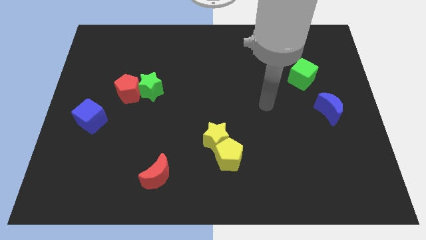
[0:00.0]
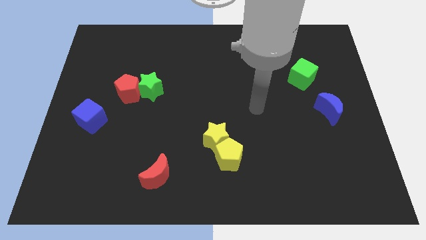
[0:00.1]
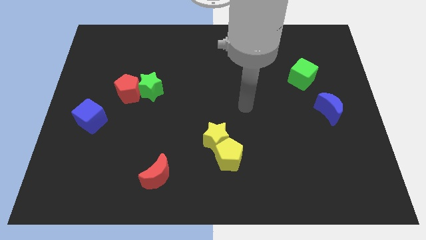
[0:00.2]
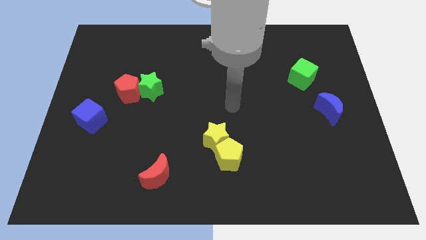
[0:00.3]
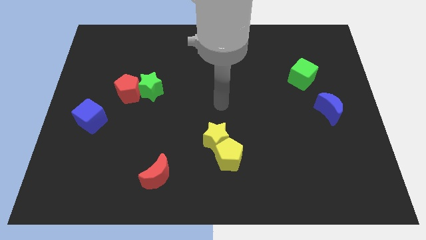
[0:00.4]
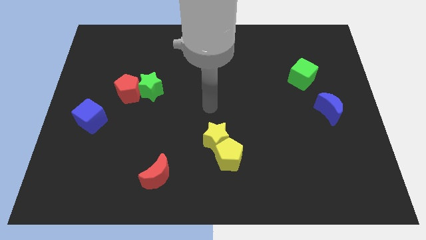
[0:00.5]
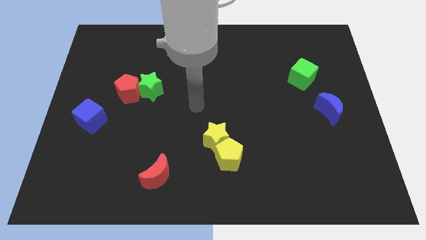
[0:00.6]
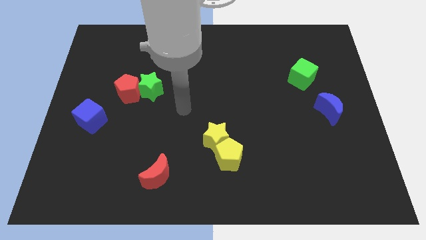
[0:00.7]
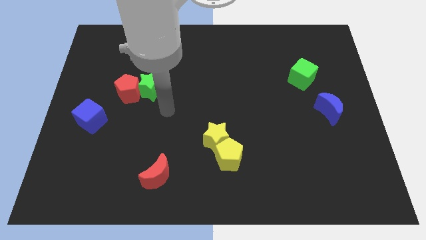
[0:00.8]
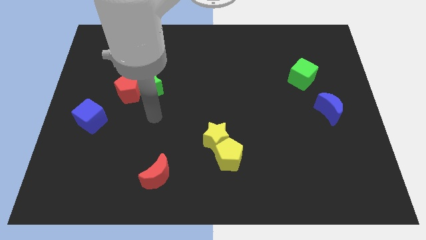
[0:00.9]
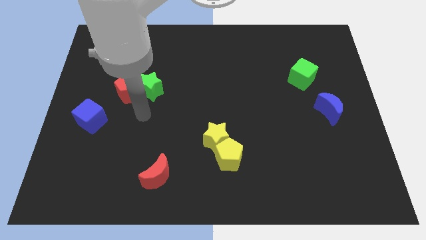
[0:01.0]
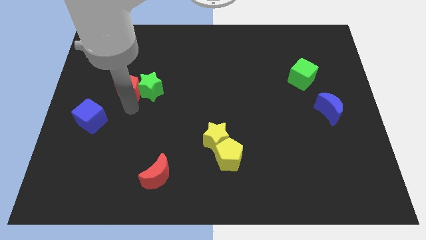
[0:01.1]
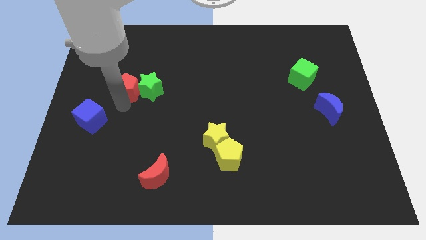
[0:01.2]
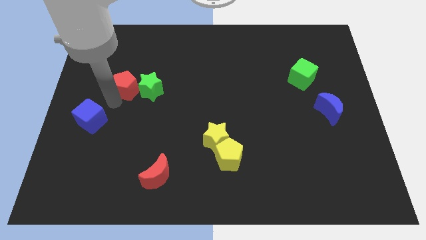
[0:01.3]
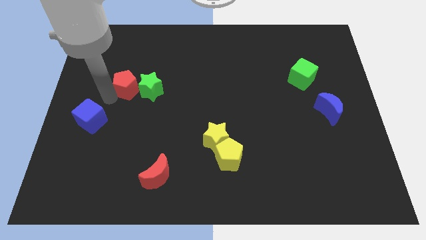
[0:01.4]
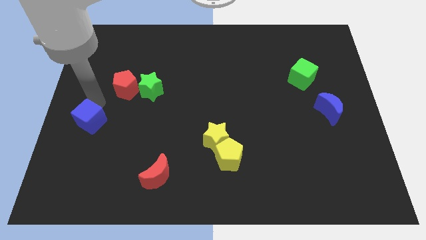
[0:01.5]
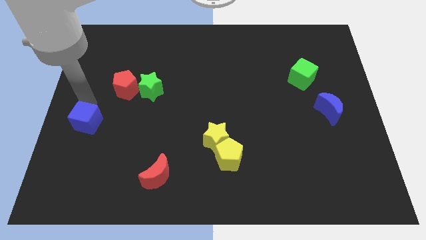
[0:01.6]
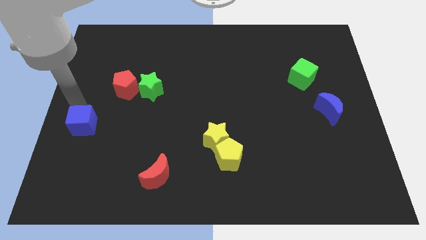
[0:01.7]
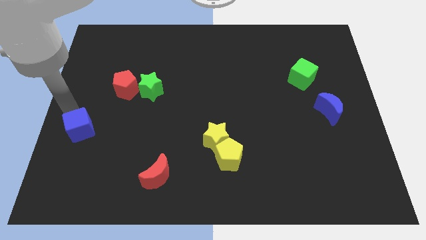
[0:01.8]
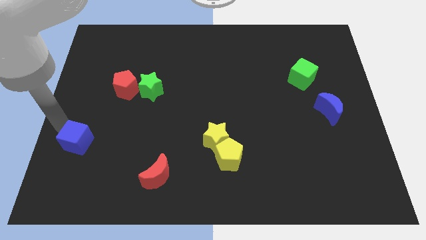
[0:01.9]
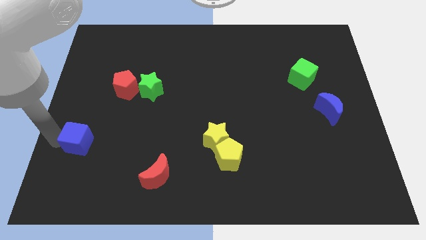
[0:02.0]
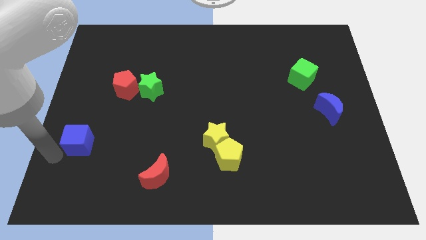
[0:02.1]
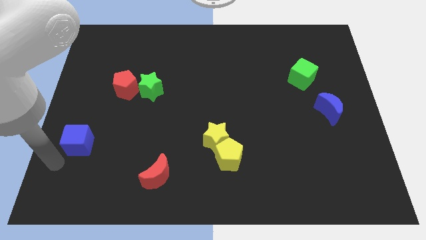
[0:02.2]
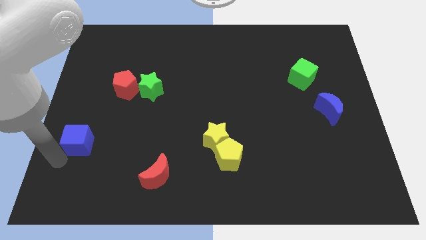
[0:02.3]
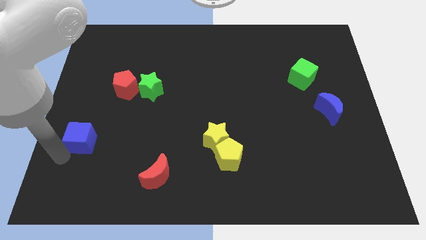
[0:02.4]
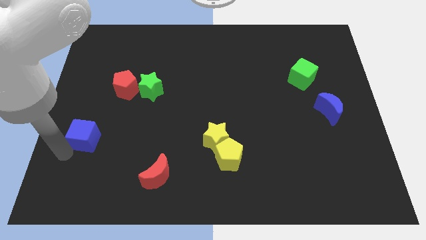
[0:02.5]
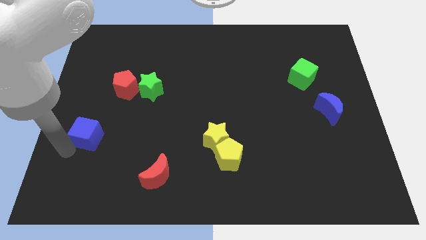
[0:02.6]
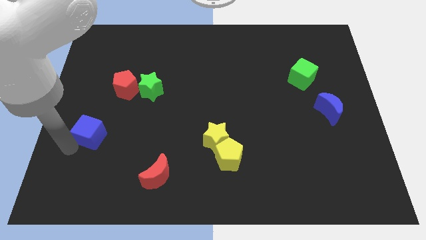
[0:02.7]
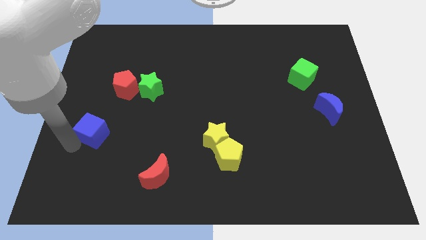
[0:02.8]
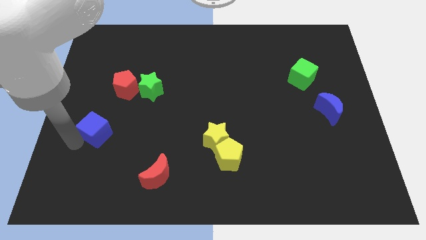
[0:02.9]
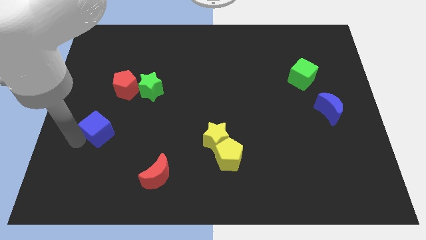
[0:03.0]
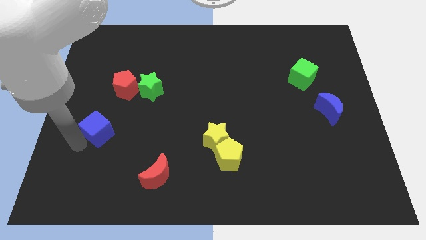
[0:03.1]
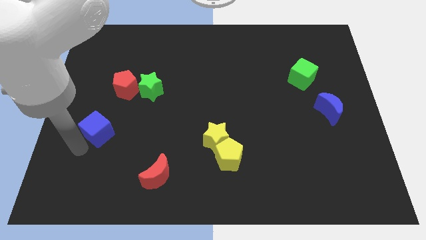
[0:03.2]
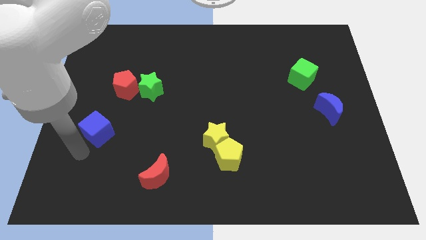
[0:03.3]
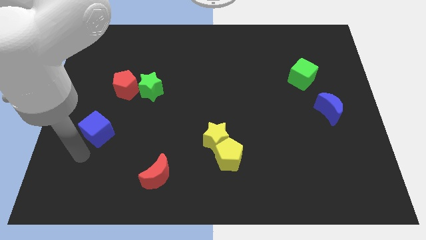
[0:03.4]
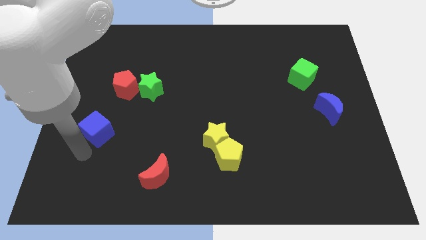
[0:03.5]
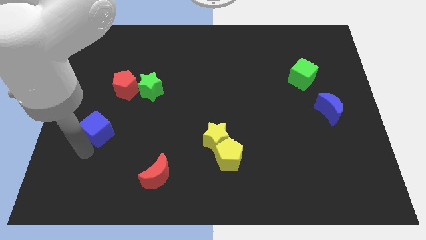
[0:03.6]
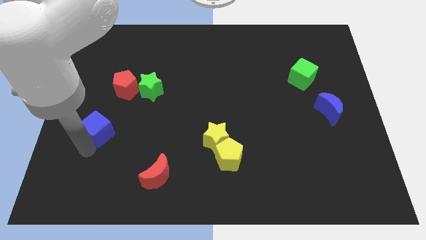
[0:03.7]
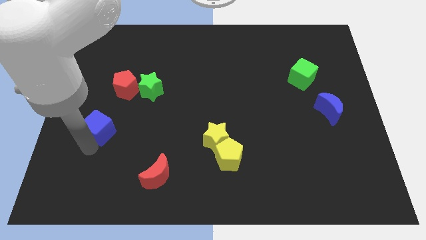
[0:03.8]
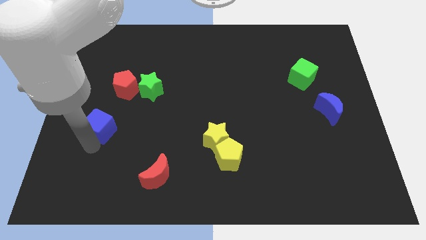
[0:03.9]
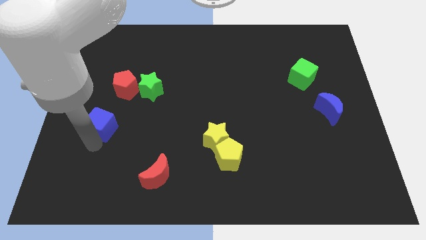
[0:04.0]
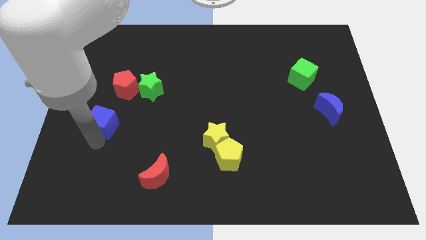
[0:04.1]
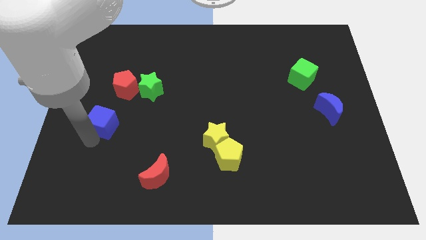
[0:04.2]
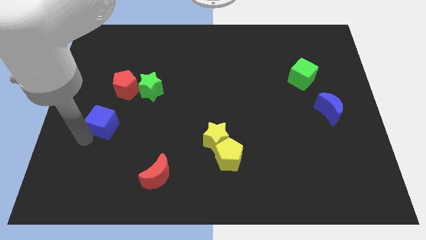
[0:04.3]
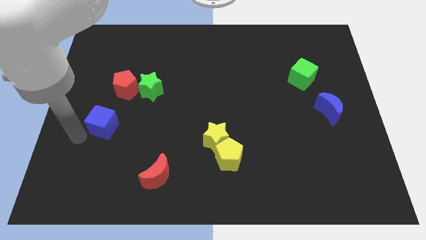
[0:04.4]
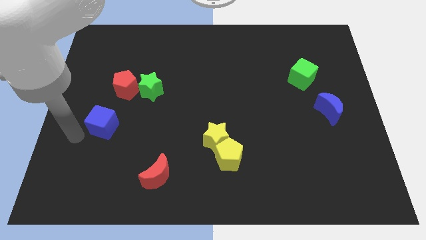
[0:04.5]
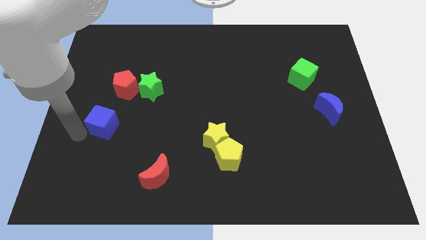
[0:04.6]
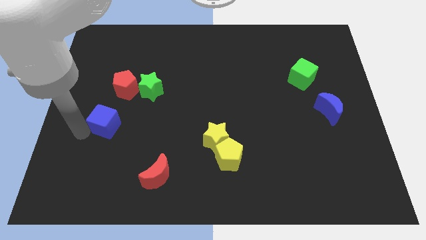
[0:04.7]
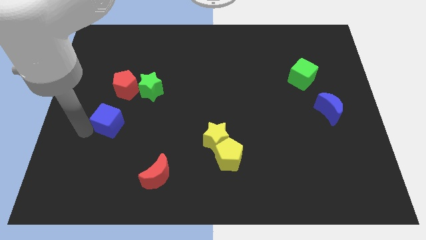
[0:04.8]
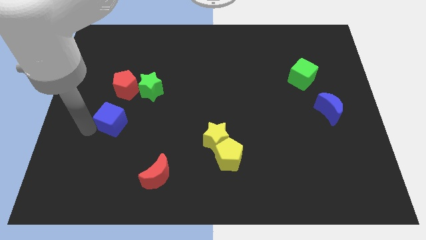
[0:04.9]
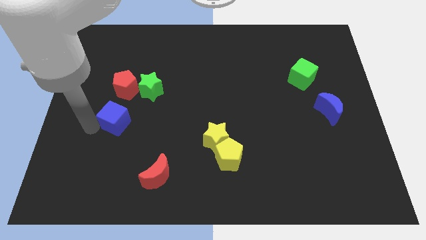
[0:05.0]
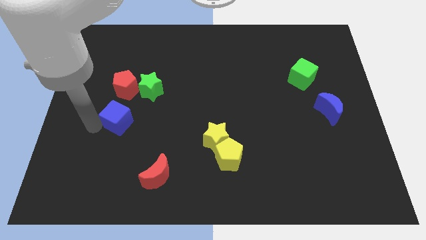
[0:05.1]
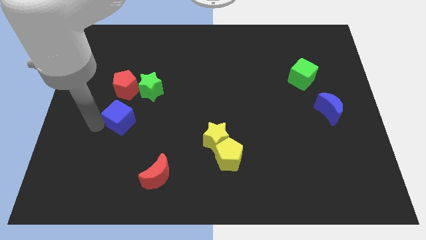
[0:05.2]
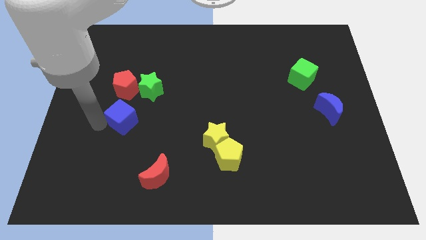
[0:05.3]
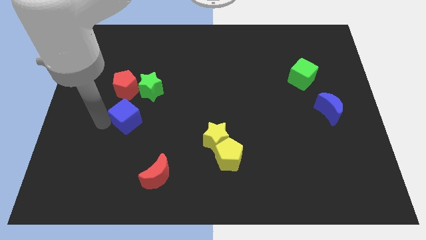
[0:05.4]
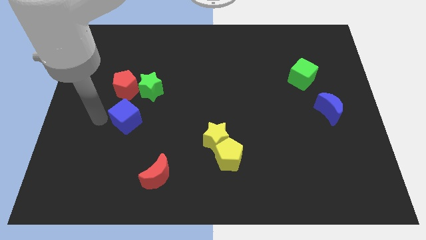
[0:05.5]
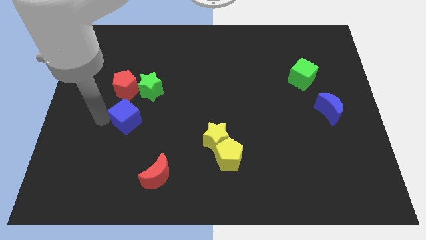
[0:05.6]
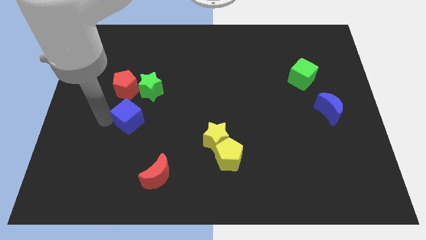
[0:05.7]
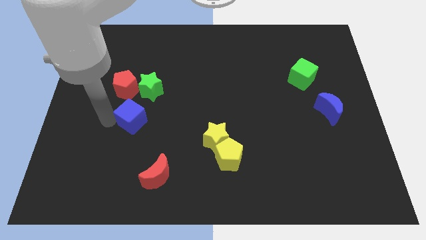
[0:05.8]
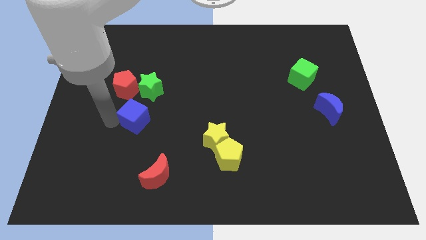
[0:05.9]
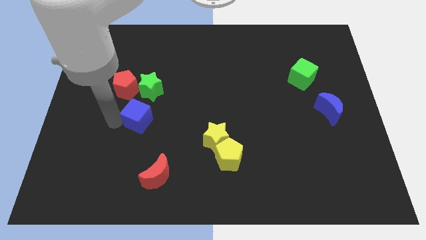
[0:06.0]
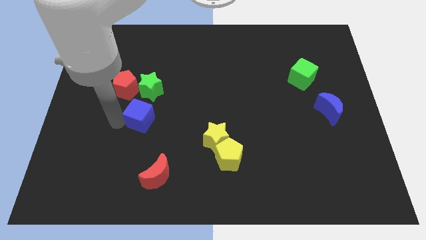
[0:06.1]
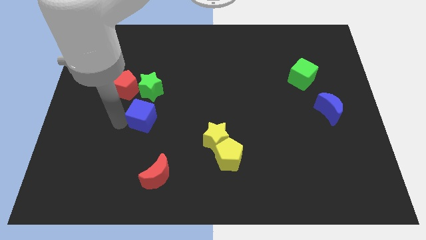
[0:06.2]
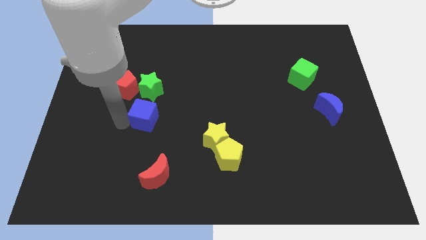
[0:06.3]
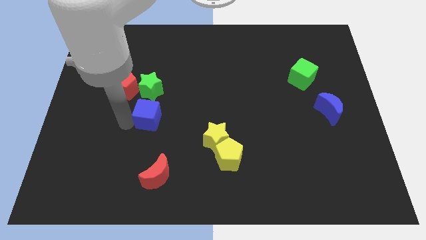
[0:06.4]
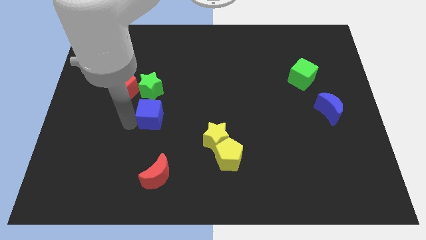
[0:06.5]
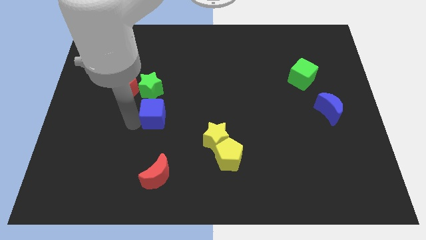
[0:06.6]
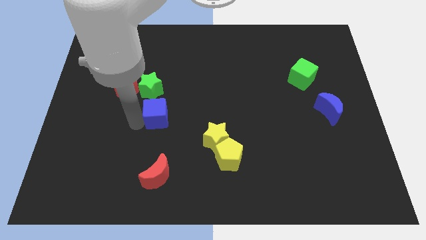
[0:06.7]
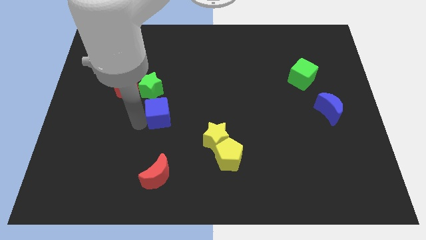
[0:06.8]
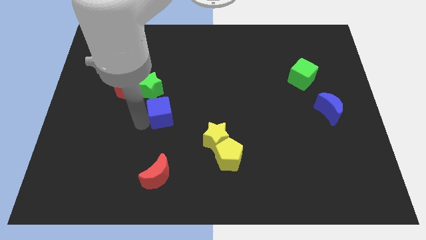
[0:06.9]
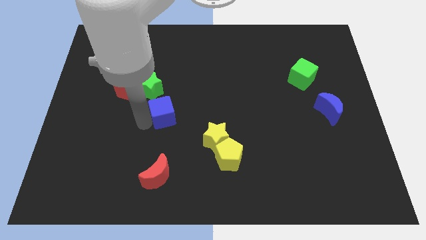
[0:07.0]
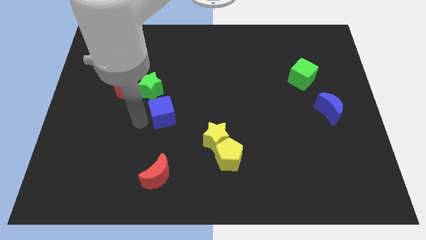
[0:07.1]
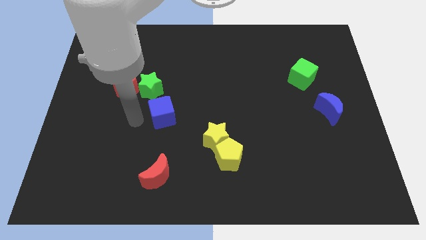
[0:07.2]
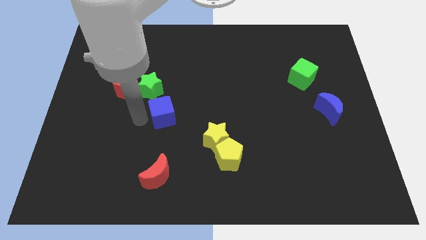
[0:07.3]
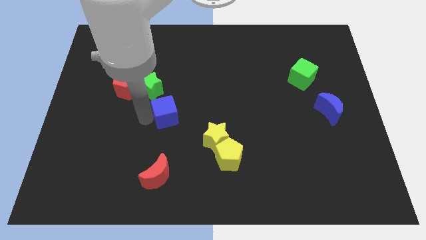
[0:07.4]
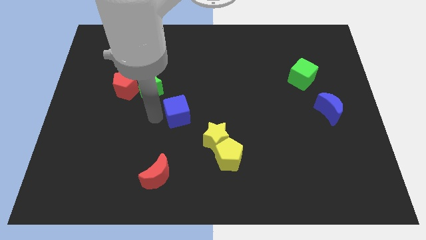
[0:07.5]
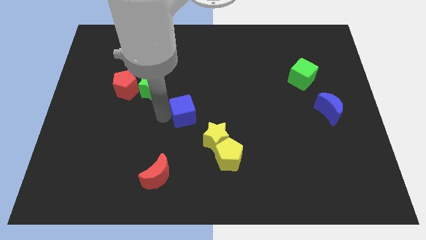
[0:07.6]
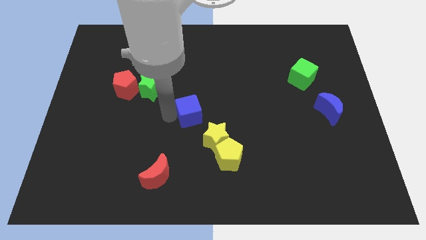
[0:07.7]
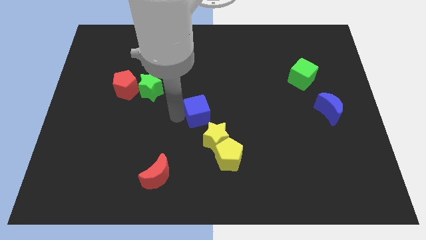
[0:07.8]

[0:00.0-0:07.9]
push the blue cube to the top of the yellow star
